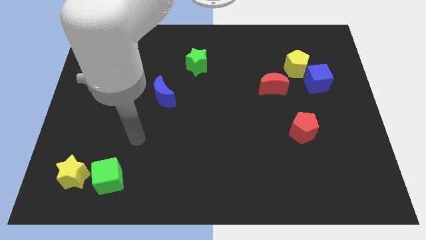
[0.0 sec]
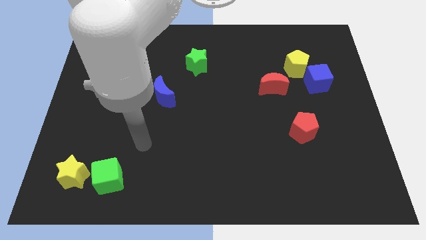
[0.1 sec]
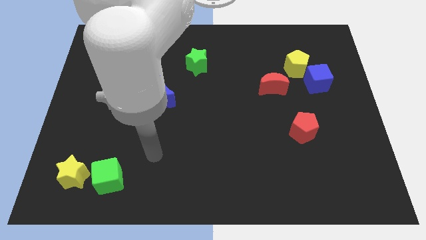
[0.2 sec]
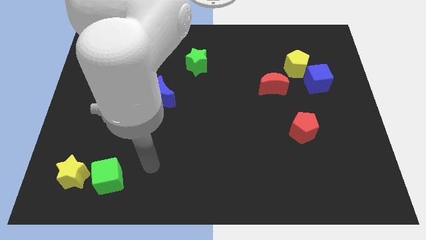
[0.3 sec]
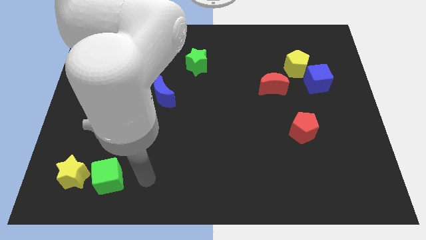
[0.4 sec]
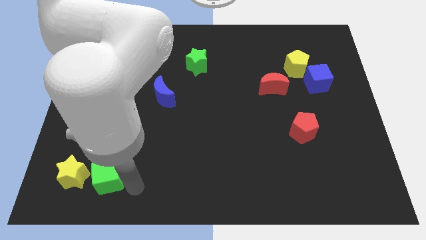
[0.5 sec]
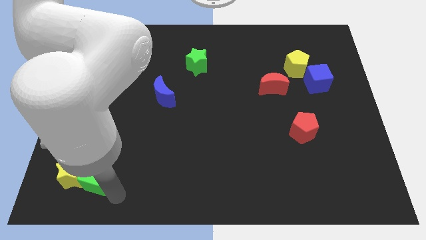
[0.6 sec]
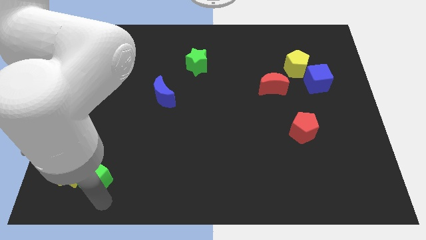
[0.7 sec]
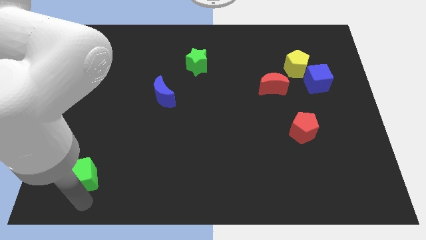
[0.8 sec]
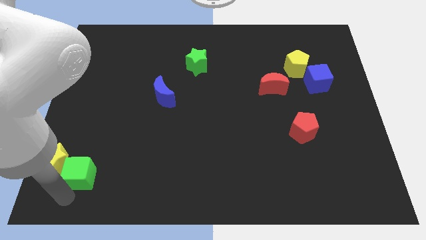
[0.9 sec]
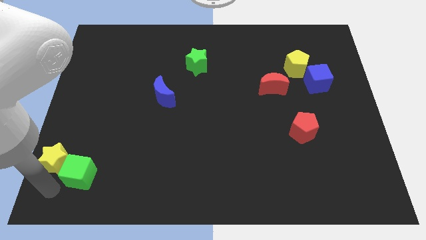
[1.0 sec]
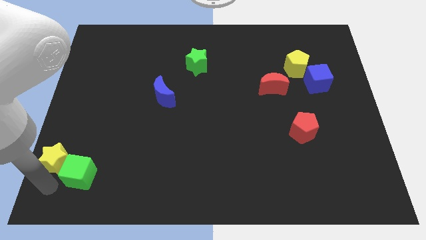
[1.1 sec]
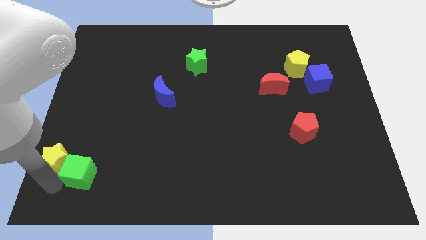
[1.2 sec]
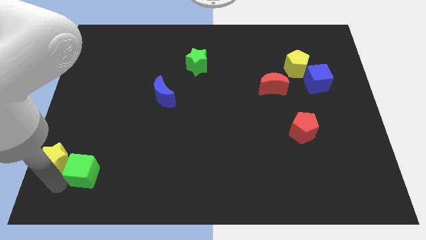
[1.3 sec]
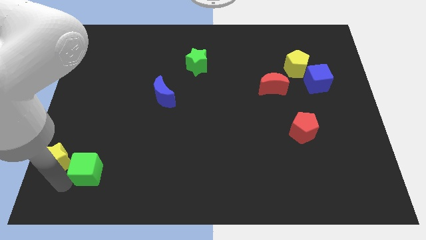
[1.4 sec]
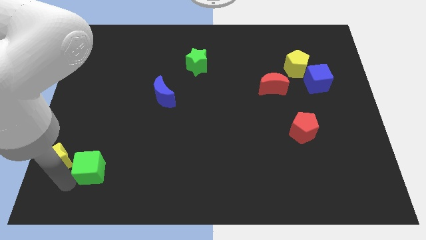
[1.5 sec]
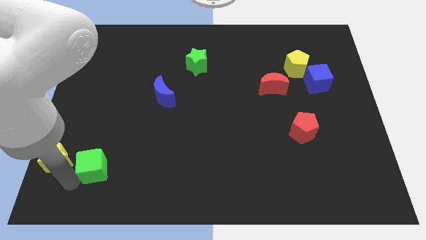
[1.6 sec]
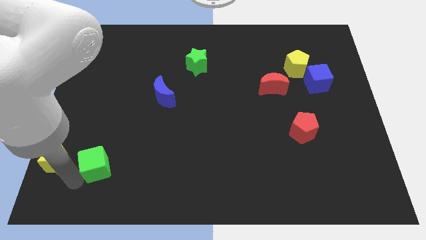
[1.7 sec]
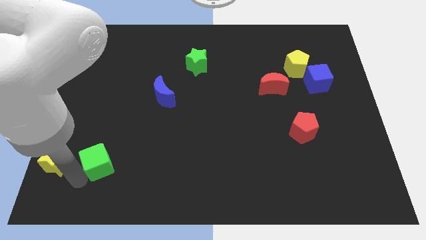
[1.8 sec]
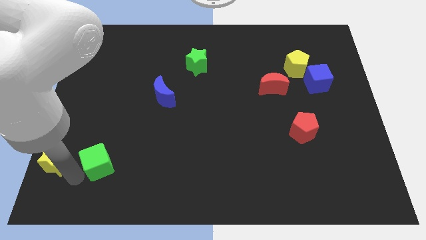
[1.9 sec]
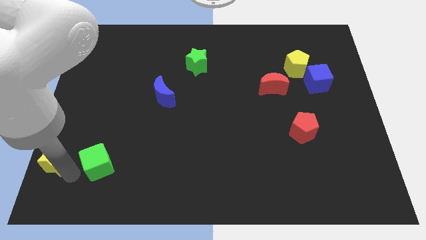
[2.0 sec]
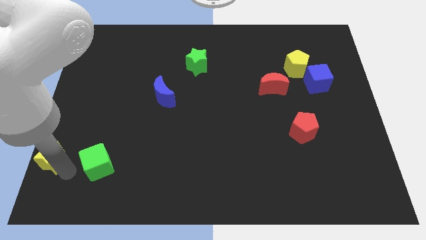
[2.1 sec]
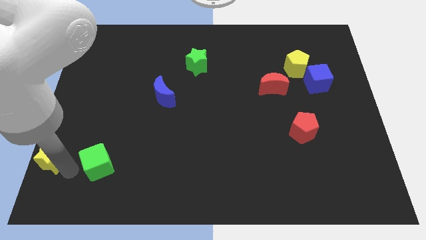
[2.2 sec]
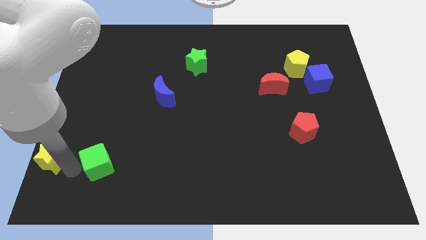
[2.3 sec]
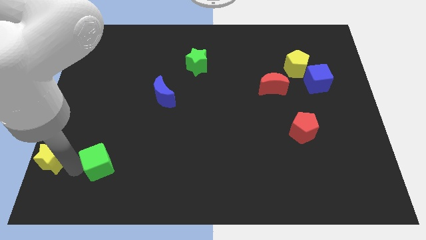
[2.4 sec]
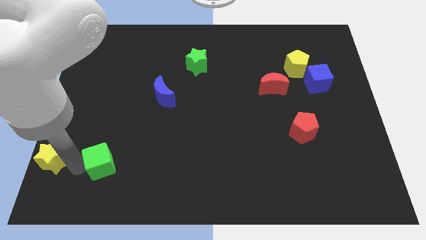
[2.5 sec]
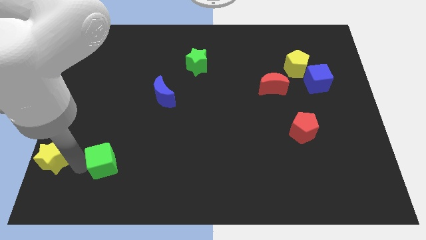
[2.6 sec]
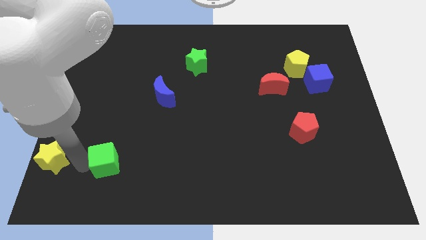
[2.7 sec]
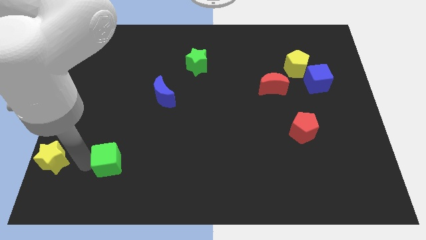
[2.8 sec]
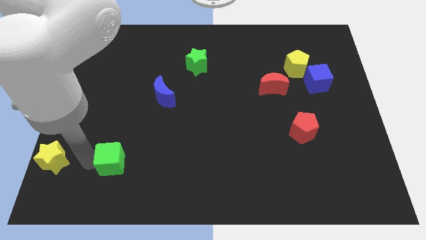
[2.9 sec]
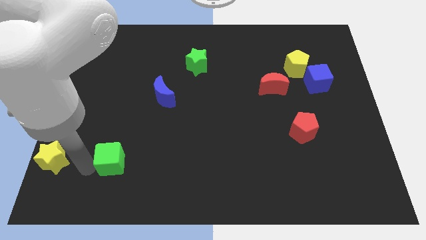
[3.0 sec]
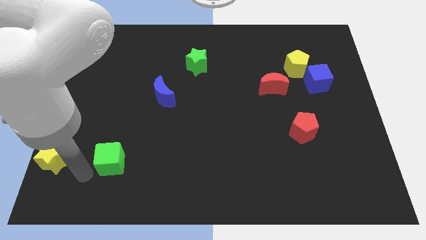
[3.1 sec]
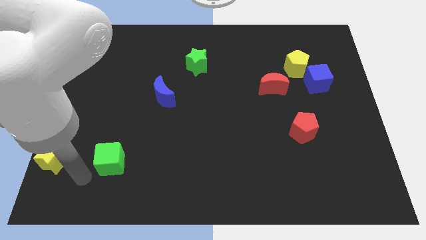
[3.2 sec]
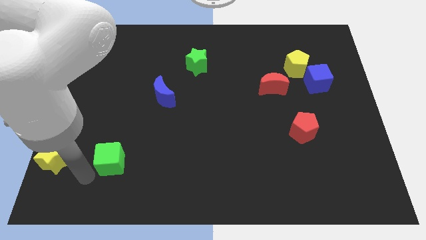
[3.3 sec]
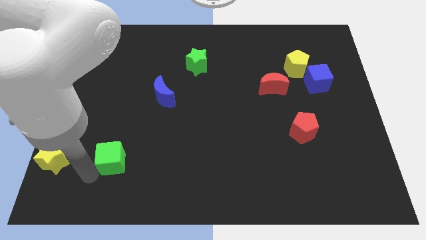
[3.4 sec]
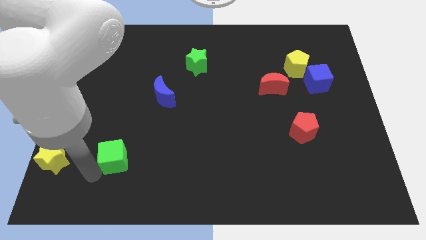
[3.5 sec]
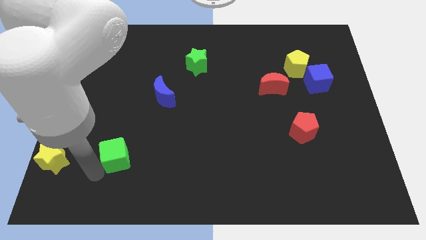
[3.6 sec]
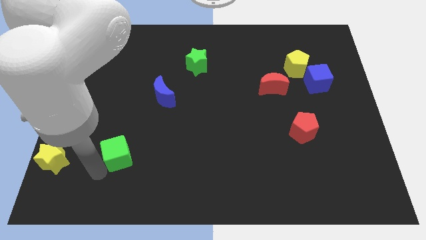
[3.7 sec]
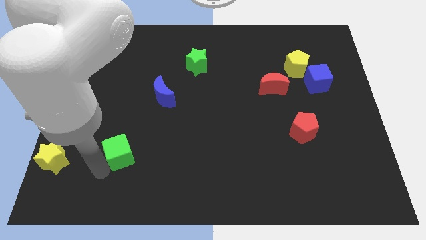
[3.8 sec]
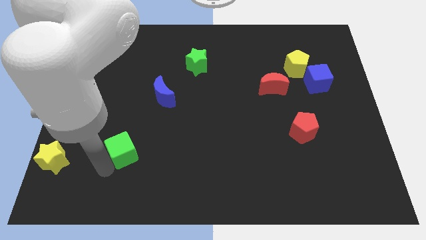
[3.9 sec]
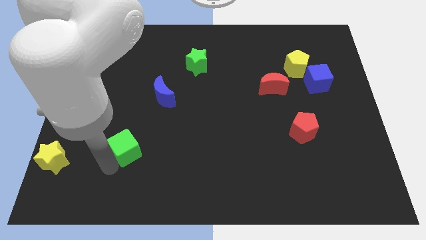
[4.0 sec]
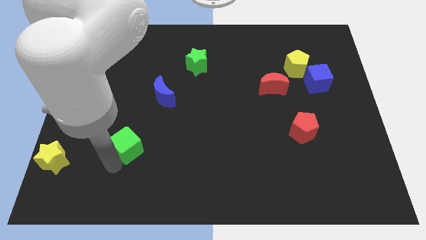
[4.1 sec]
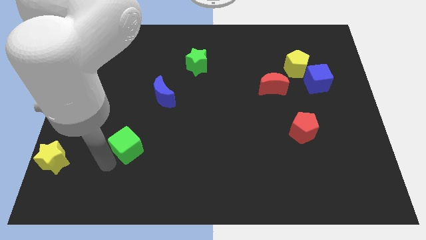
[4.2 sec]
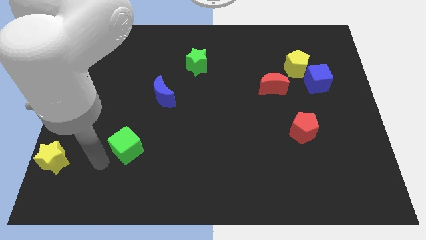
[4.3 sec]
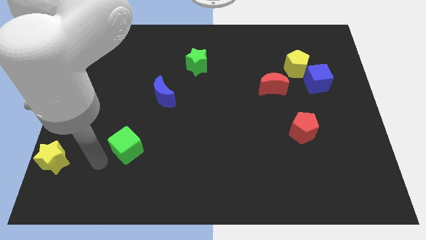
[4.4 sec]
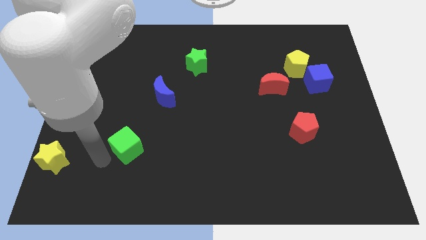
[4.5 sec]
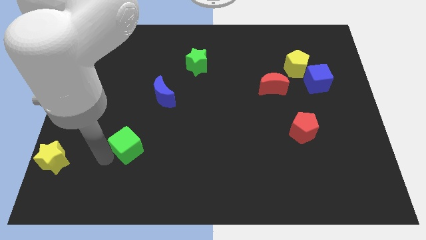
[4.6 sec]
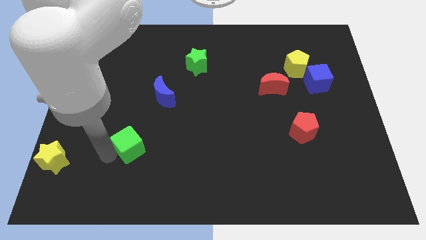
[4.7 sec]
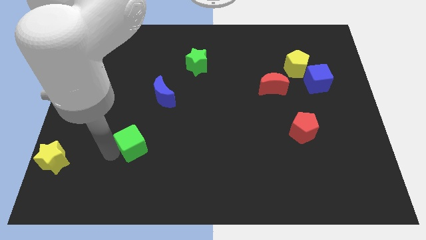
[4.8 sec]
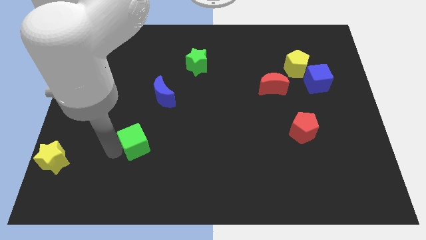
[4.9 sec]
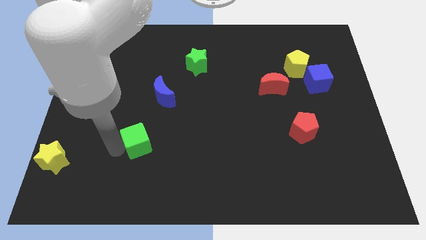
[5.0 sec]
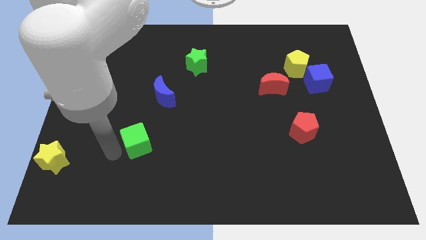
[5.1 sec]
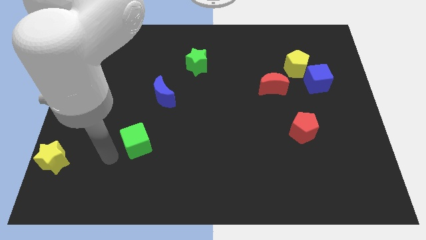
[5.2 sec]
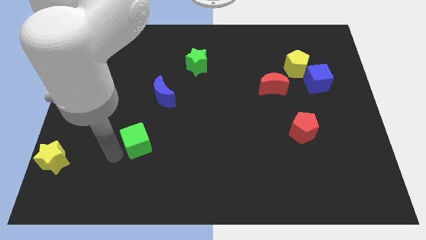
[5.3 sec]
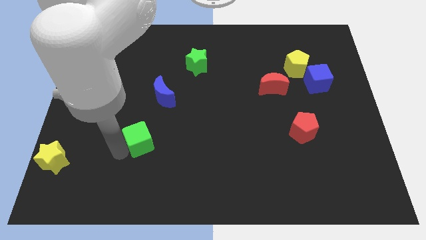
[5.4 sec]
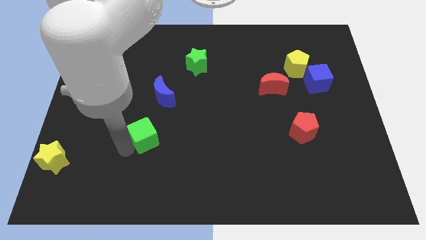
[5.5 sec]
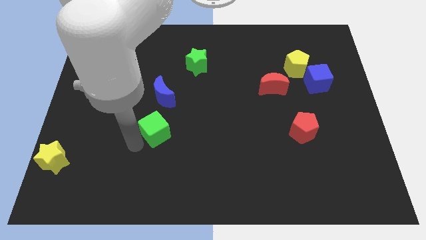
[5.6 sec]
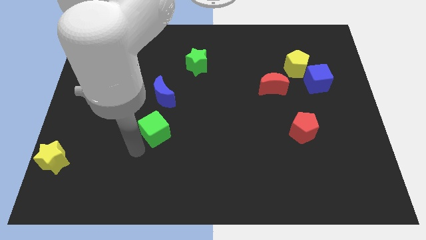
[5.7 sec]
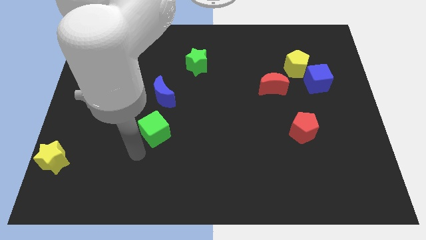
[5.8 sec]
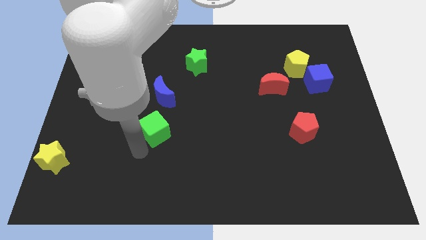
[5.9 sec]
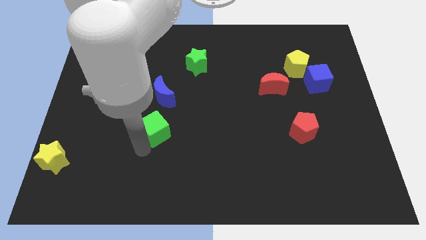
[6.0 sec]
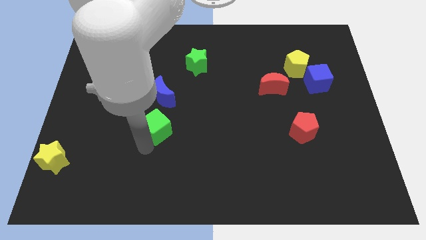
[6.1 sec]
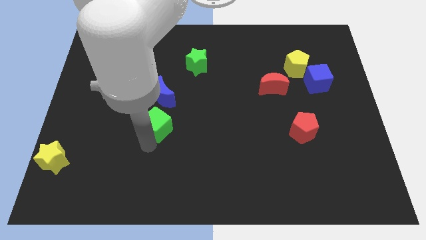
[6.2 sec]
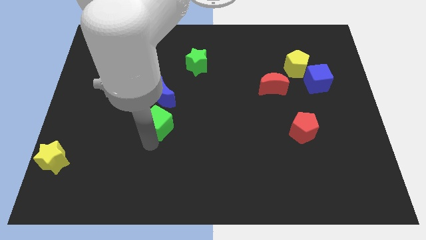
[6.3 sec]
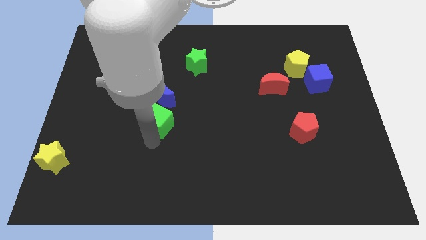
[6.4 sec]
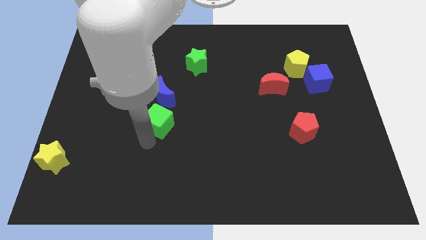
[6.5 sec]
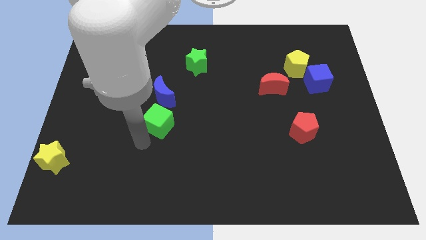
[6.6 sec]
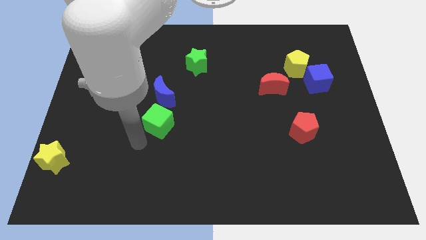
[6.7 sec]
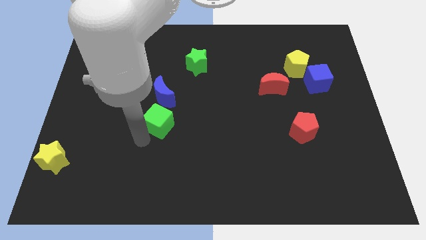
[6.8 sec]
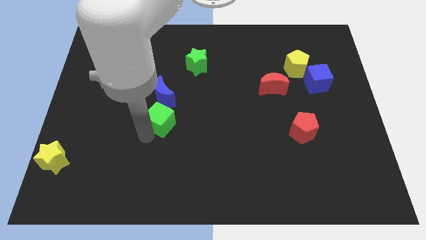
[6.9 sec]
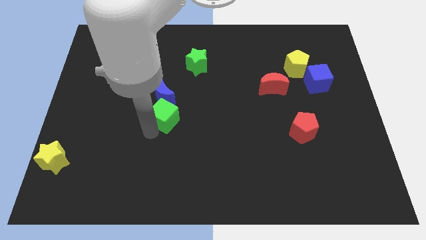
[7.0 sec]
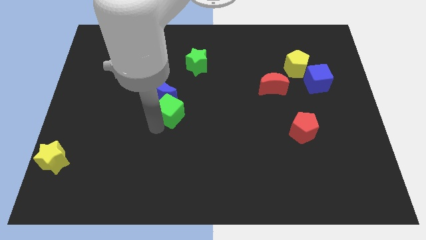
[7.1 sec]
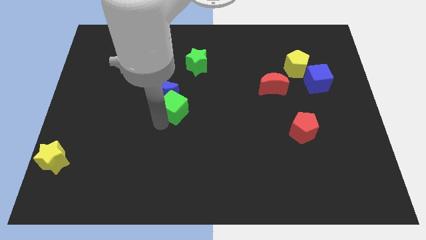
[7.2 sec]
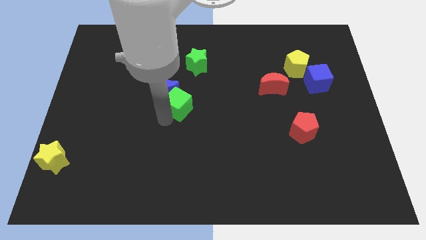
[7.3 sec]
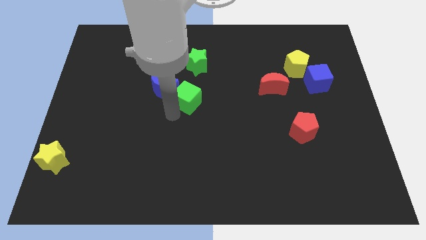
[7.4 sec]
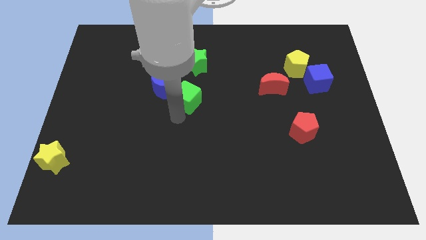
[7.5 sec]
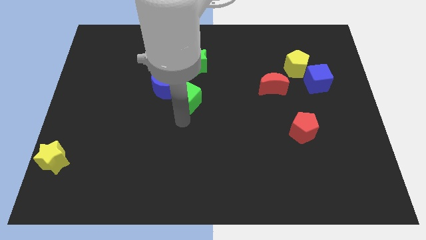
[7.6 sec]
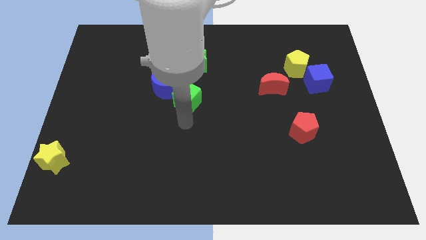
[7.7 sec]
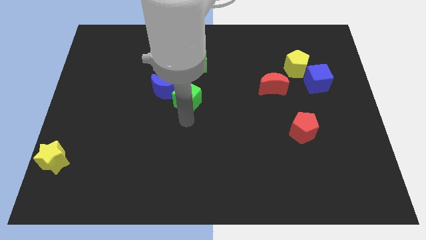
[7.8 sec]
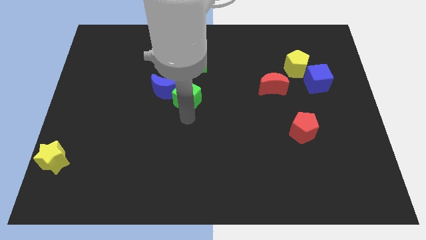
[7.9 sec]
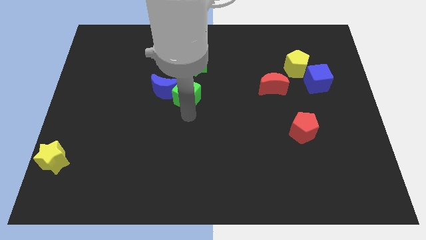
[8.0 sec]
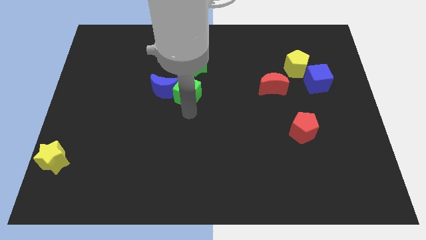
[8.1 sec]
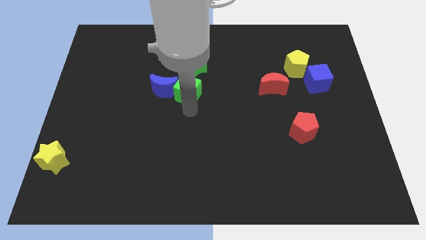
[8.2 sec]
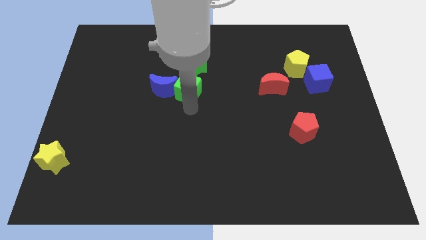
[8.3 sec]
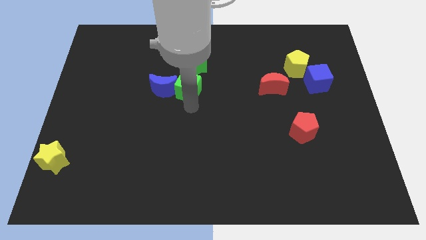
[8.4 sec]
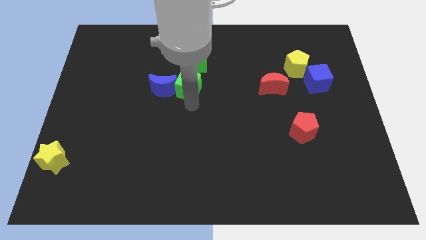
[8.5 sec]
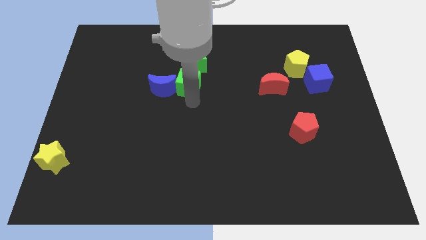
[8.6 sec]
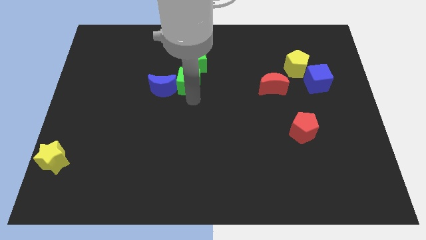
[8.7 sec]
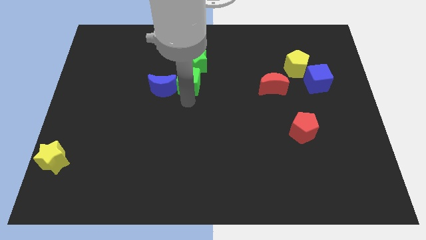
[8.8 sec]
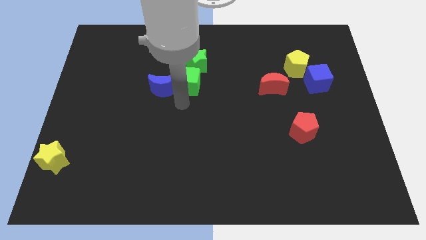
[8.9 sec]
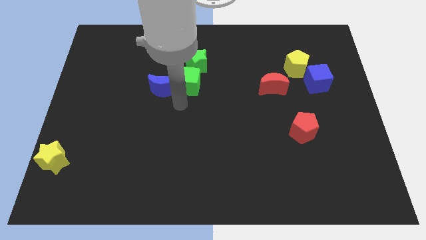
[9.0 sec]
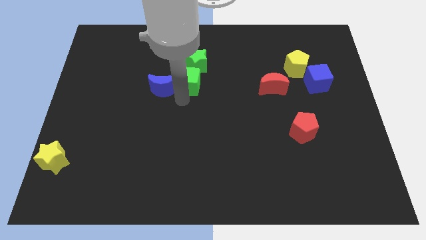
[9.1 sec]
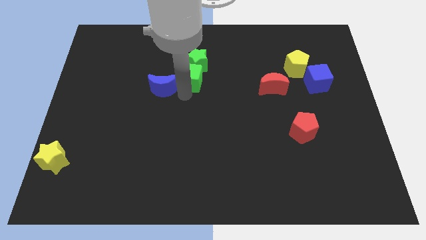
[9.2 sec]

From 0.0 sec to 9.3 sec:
put the green cube next to the green star
